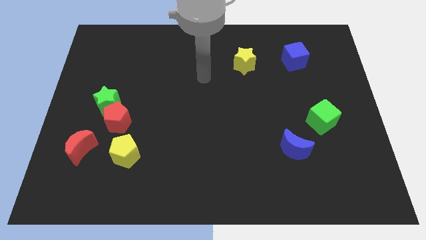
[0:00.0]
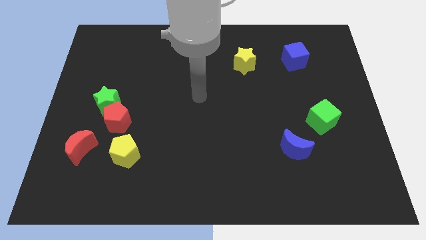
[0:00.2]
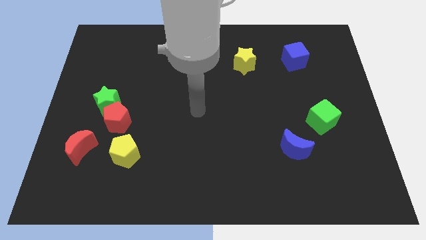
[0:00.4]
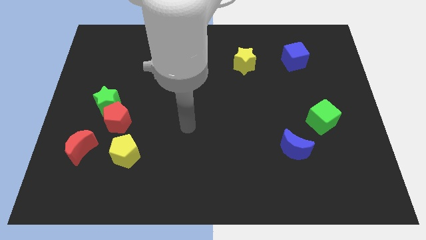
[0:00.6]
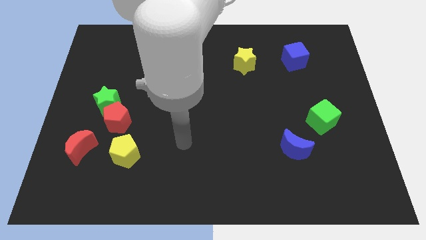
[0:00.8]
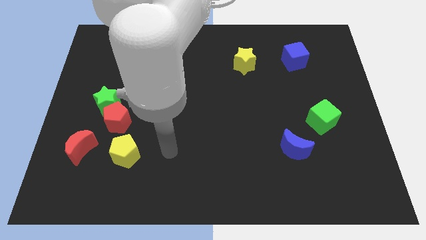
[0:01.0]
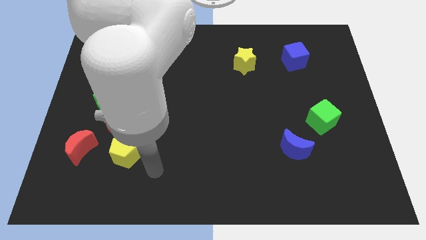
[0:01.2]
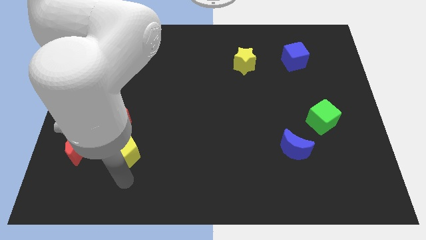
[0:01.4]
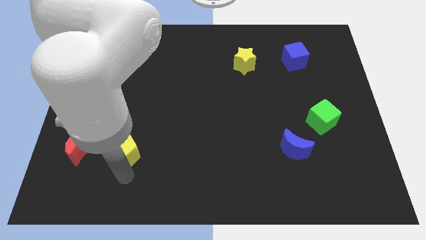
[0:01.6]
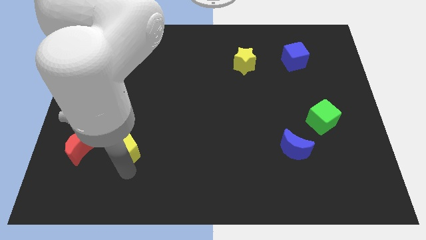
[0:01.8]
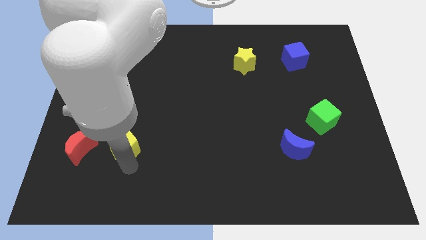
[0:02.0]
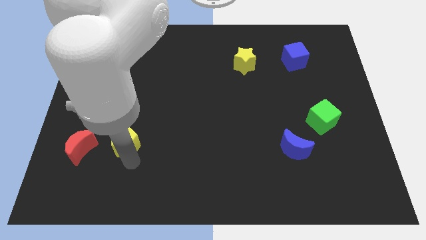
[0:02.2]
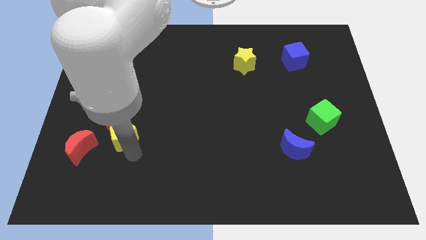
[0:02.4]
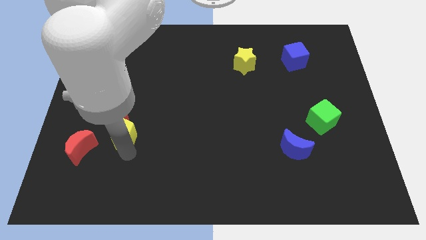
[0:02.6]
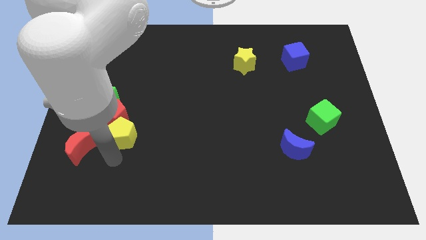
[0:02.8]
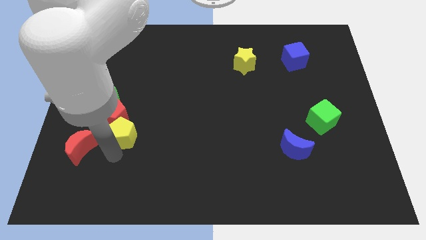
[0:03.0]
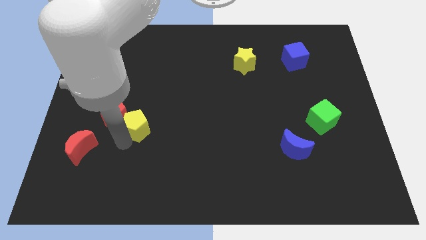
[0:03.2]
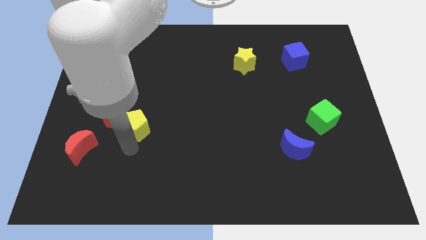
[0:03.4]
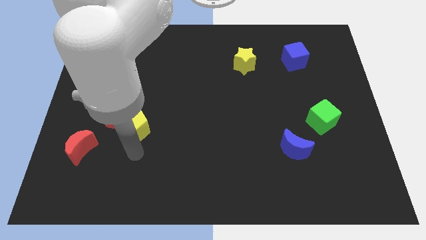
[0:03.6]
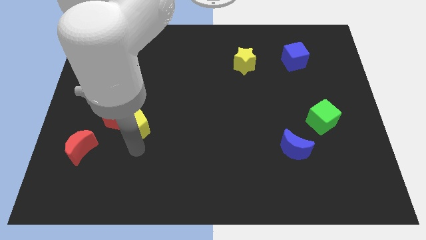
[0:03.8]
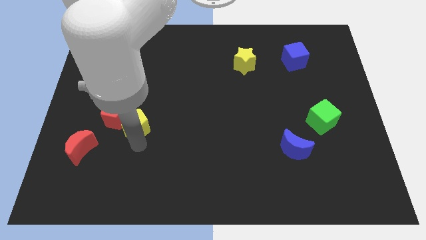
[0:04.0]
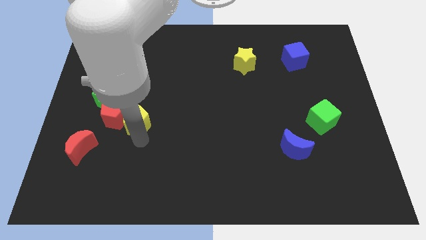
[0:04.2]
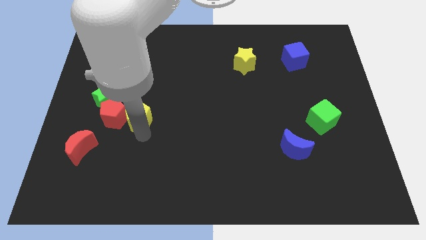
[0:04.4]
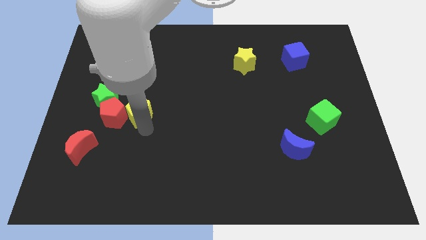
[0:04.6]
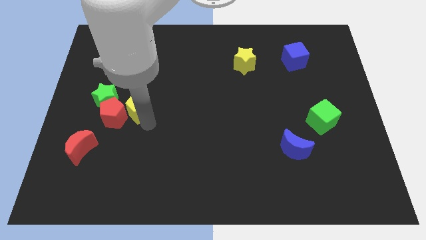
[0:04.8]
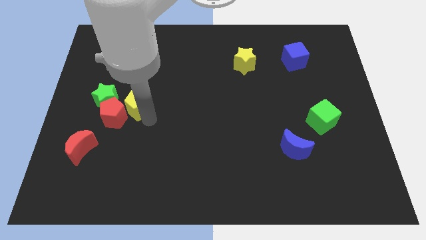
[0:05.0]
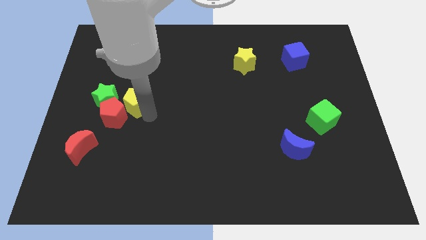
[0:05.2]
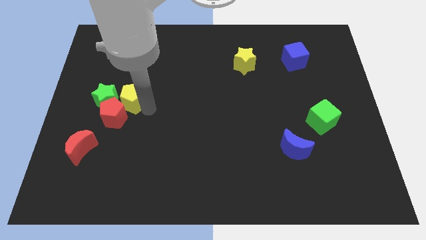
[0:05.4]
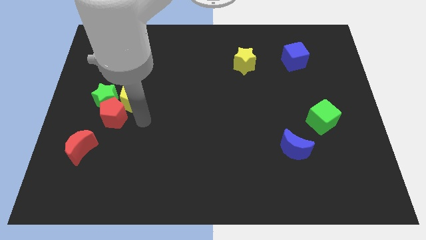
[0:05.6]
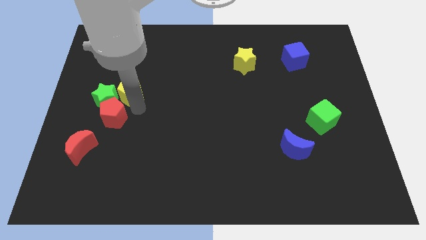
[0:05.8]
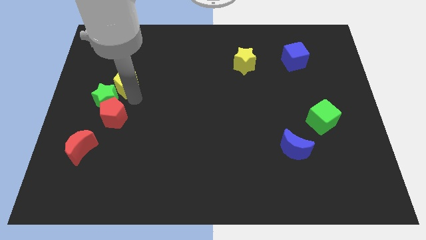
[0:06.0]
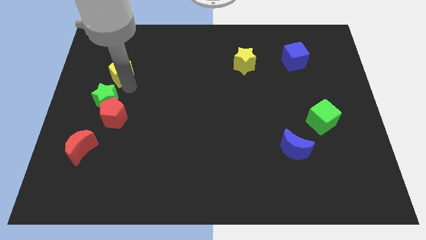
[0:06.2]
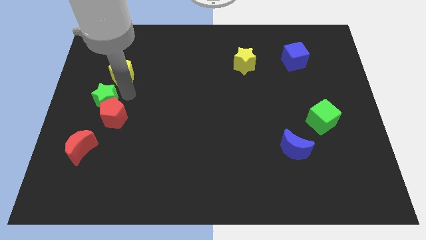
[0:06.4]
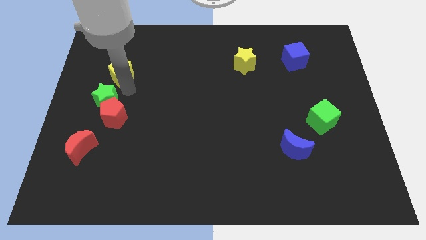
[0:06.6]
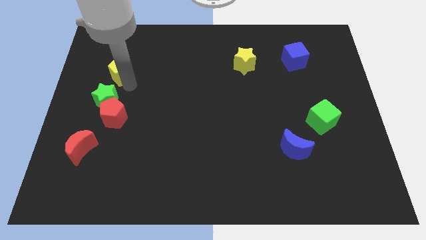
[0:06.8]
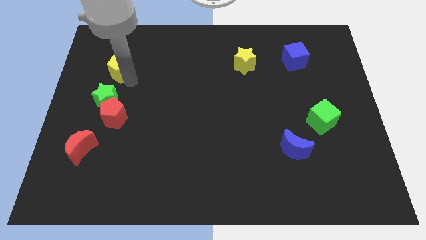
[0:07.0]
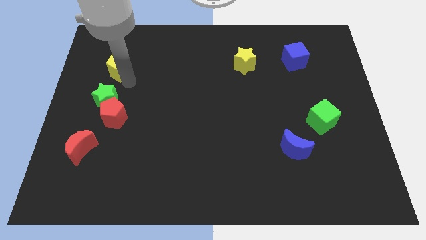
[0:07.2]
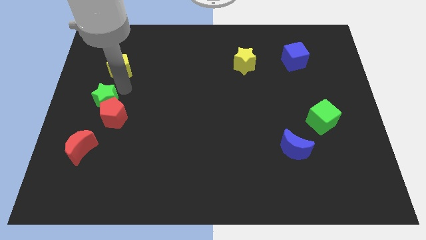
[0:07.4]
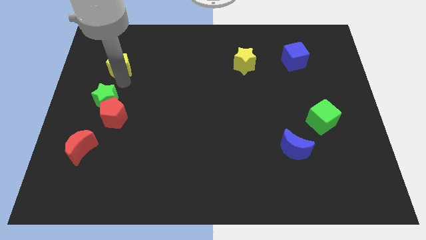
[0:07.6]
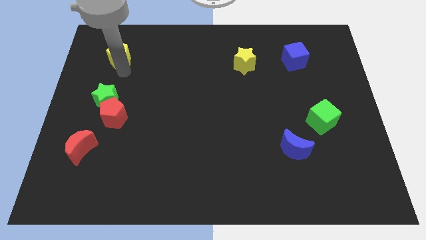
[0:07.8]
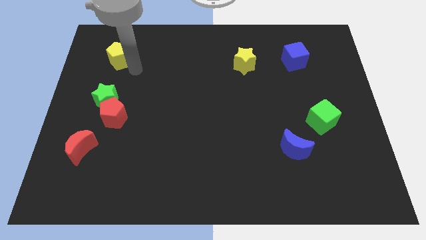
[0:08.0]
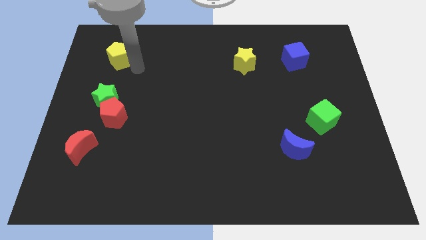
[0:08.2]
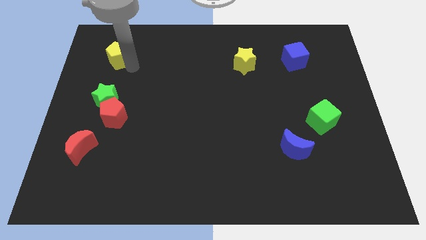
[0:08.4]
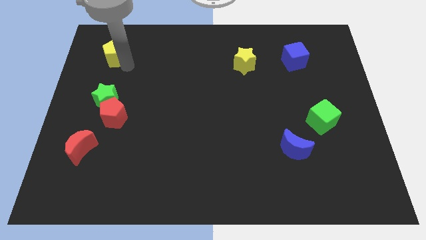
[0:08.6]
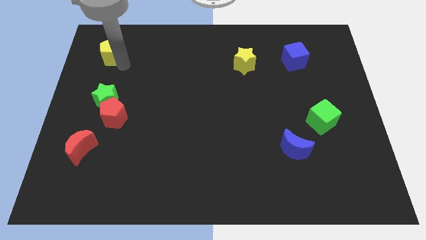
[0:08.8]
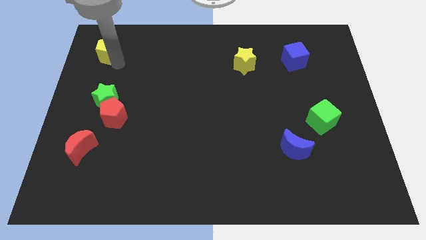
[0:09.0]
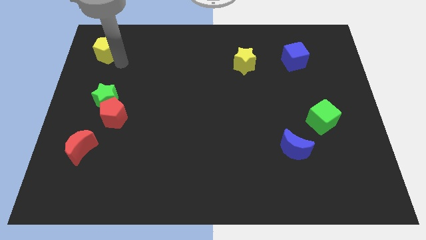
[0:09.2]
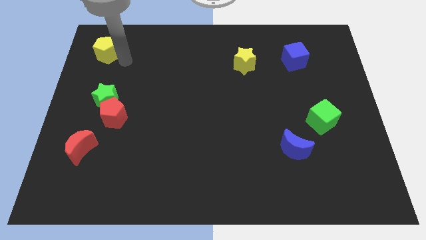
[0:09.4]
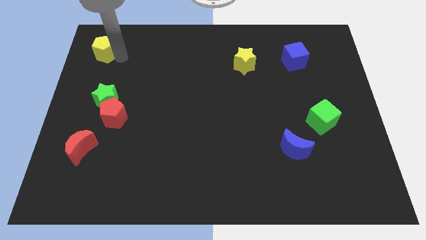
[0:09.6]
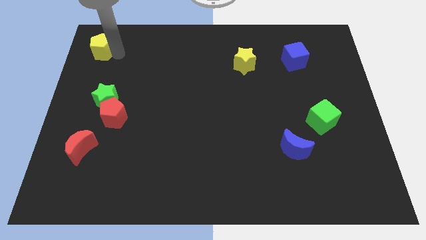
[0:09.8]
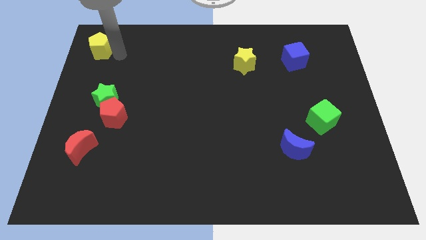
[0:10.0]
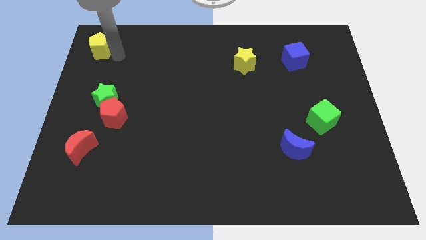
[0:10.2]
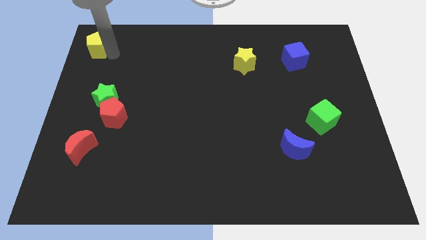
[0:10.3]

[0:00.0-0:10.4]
push the yellow pentagon to the top left
